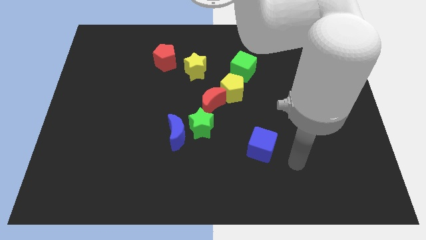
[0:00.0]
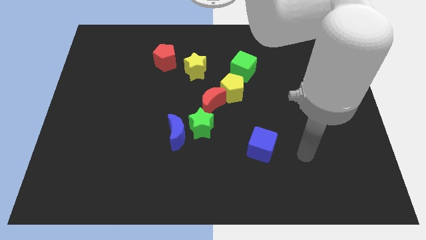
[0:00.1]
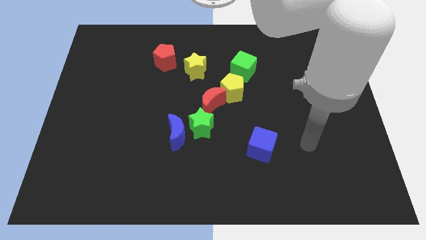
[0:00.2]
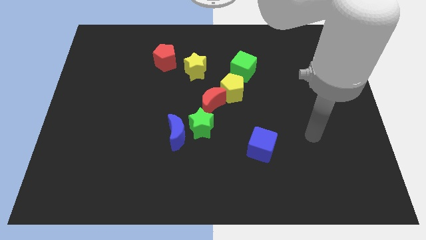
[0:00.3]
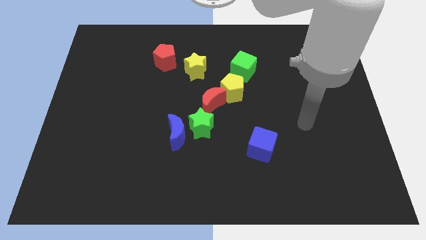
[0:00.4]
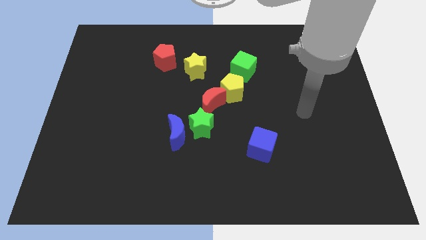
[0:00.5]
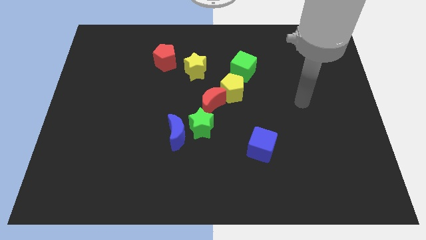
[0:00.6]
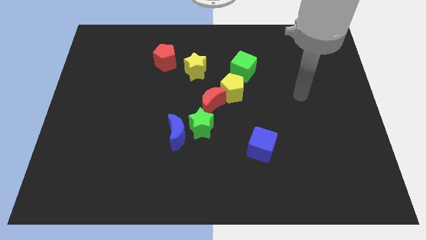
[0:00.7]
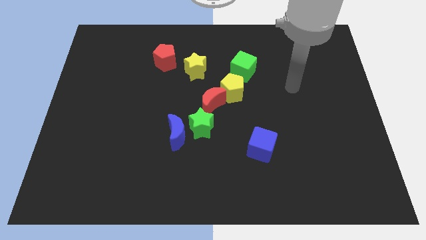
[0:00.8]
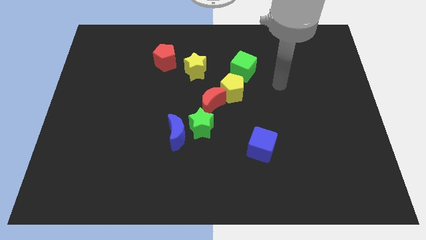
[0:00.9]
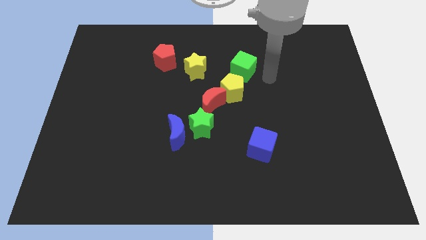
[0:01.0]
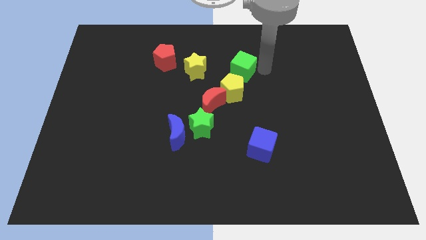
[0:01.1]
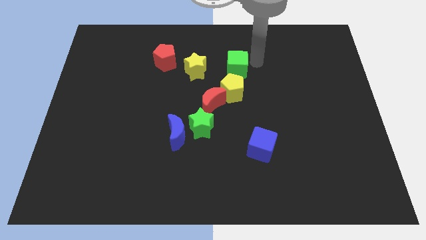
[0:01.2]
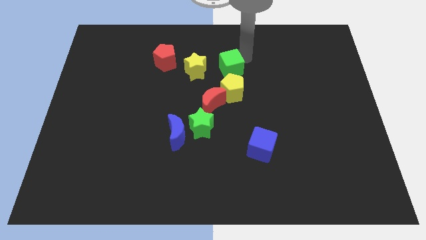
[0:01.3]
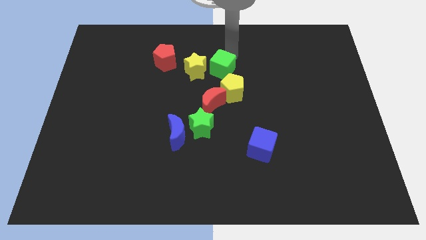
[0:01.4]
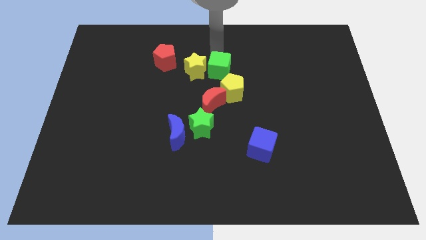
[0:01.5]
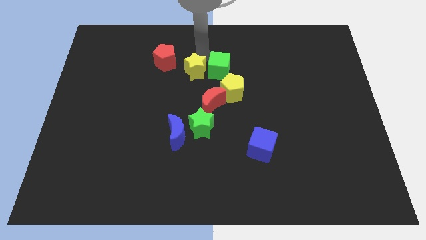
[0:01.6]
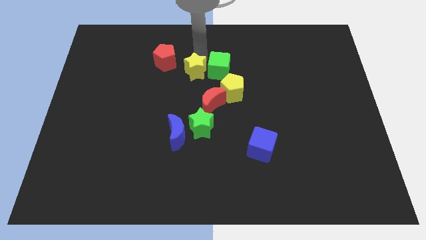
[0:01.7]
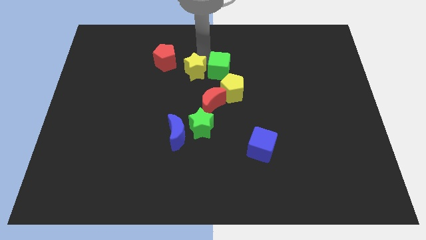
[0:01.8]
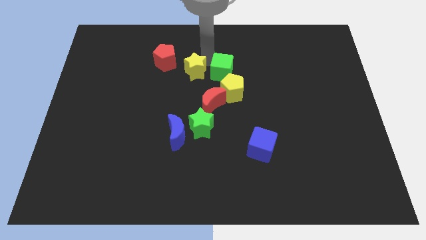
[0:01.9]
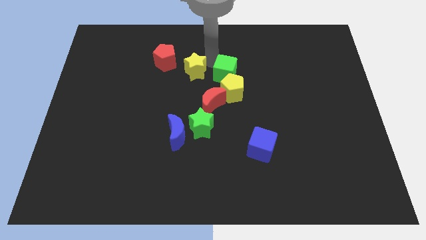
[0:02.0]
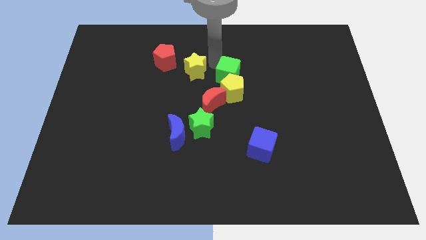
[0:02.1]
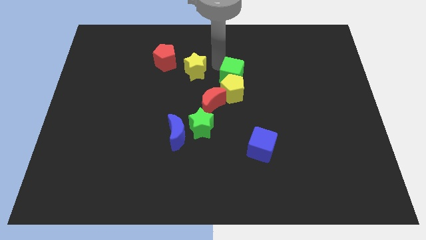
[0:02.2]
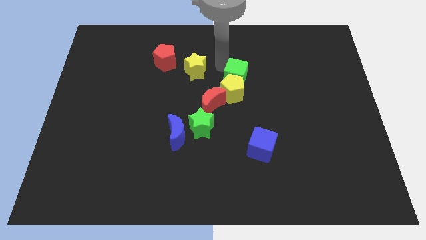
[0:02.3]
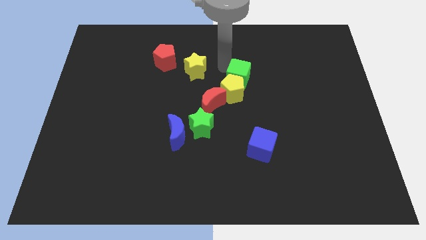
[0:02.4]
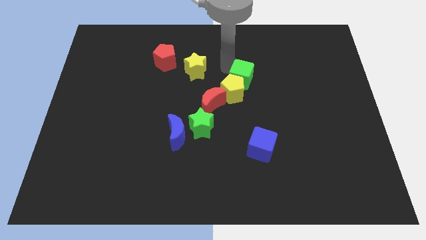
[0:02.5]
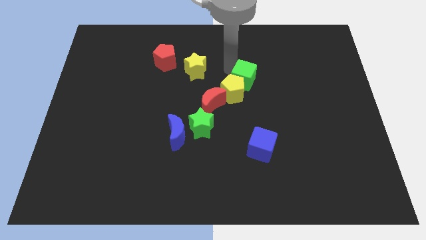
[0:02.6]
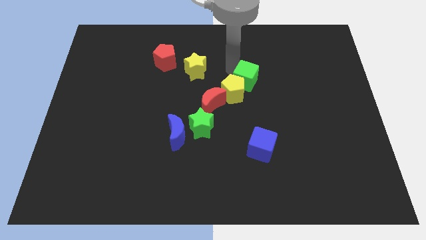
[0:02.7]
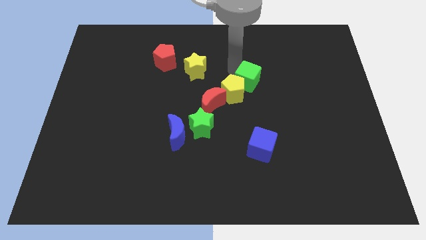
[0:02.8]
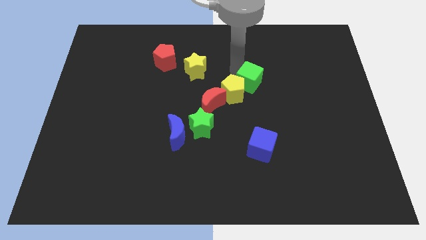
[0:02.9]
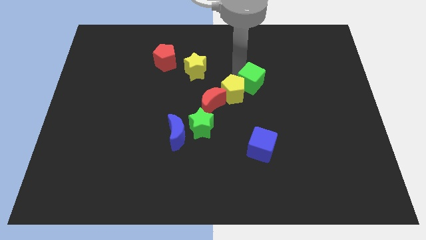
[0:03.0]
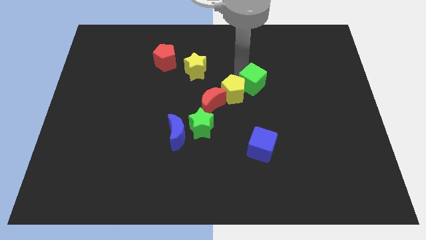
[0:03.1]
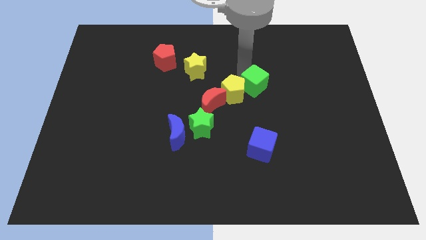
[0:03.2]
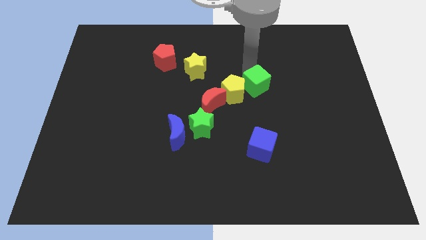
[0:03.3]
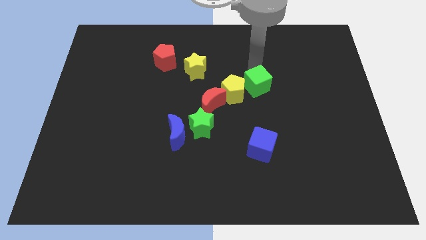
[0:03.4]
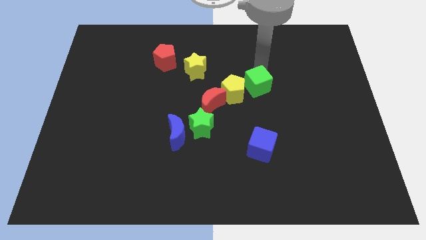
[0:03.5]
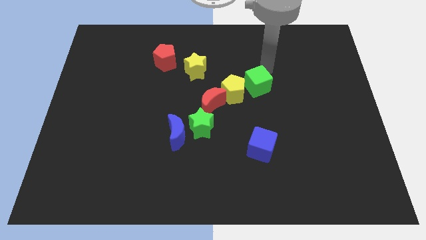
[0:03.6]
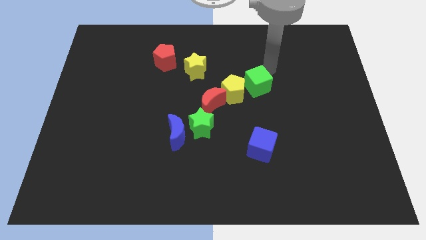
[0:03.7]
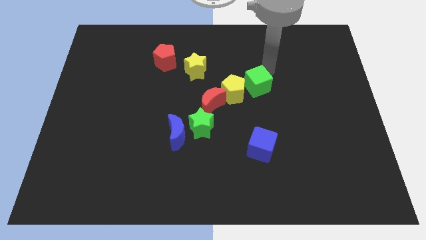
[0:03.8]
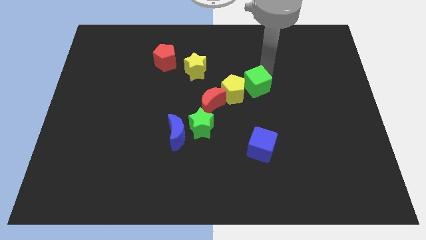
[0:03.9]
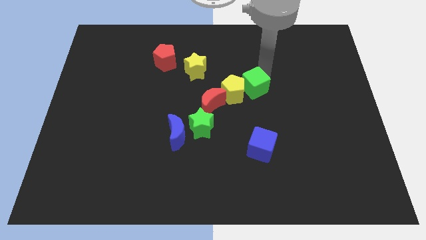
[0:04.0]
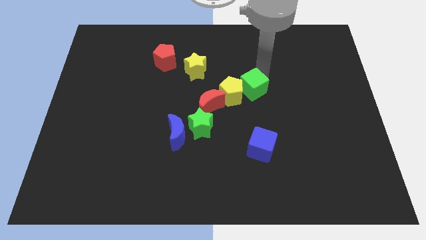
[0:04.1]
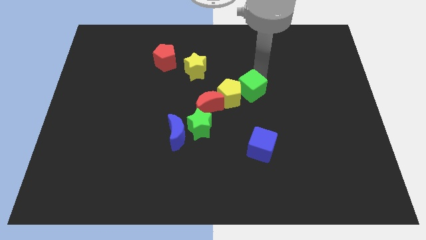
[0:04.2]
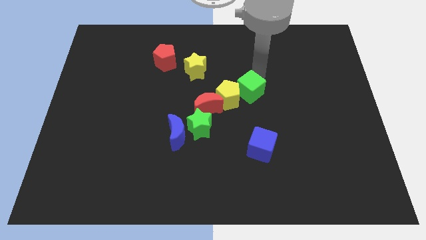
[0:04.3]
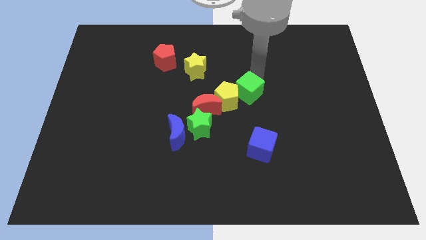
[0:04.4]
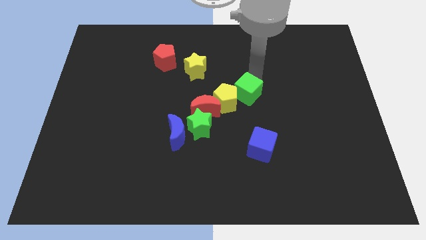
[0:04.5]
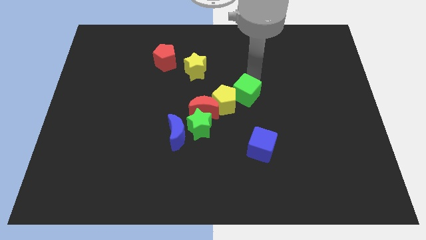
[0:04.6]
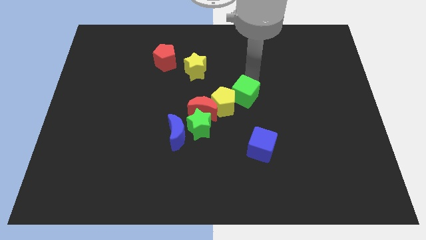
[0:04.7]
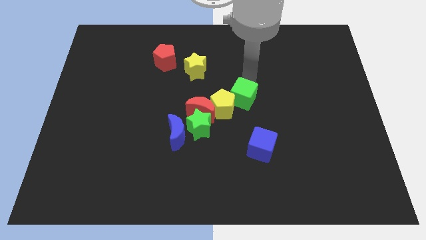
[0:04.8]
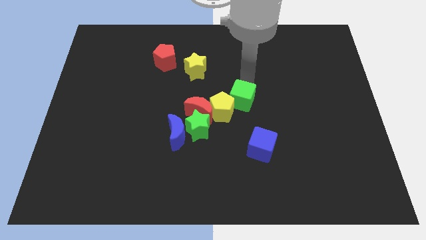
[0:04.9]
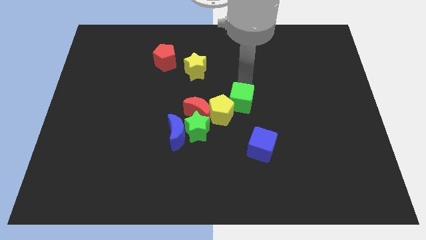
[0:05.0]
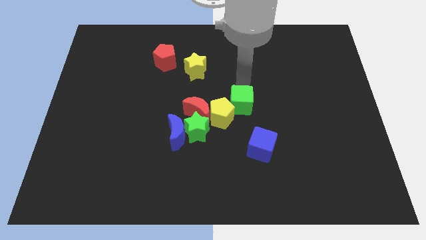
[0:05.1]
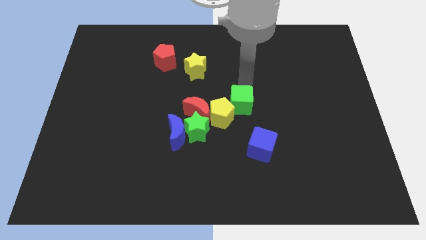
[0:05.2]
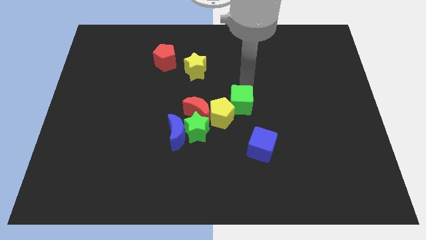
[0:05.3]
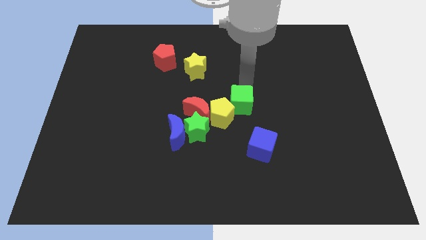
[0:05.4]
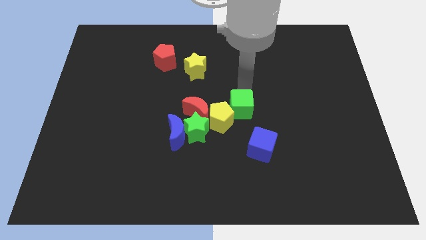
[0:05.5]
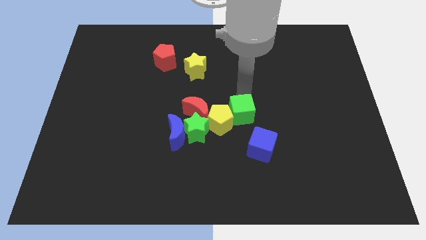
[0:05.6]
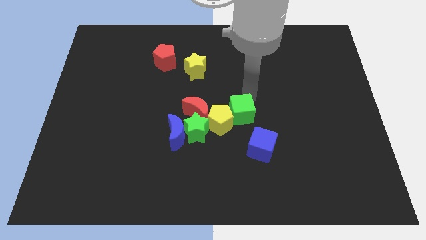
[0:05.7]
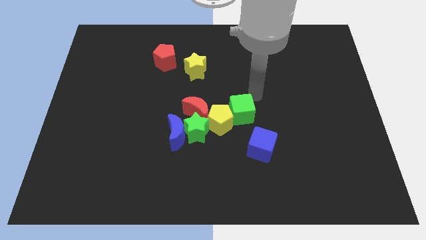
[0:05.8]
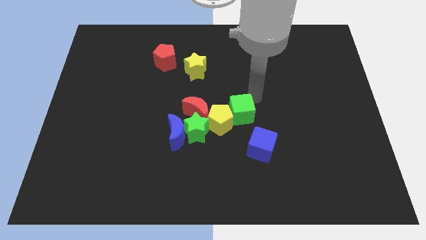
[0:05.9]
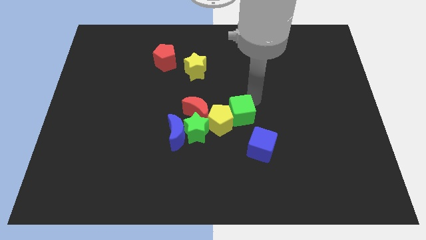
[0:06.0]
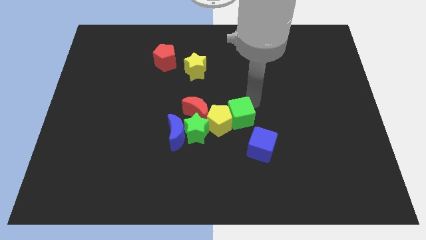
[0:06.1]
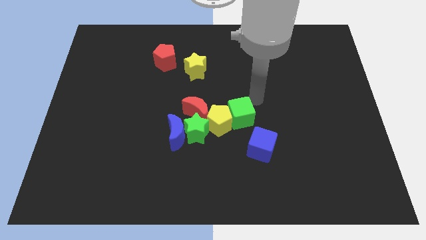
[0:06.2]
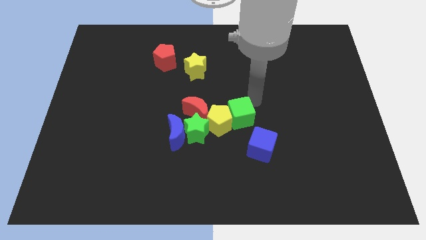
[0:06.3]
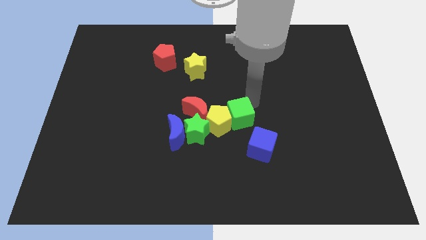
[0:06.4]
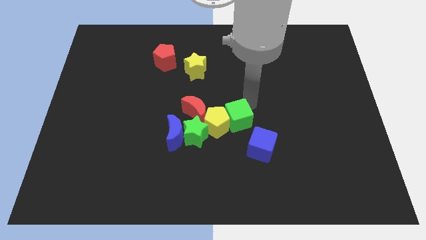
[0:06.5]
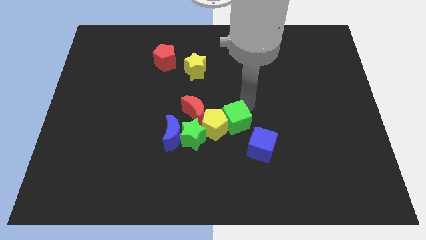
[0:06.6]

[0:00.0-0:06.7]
push the green cube to the right of the blue moon
